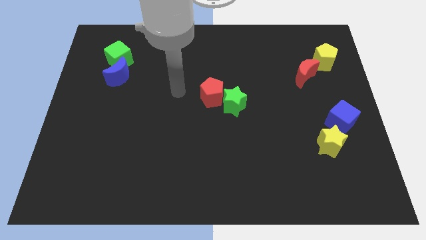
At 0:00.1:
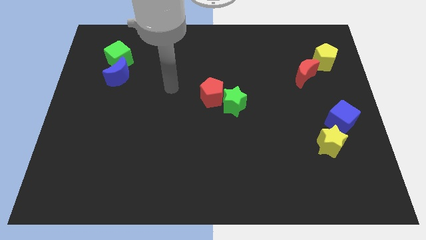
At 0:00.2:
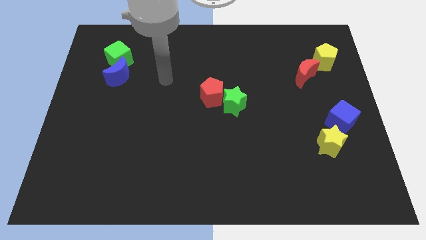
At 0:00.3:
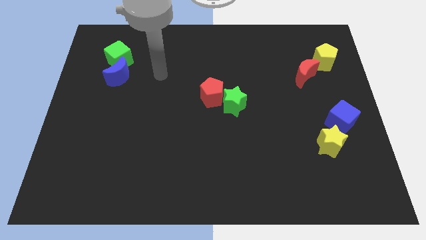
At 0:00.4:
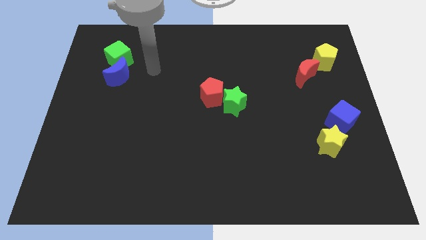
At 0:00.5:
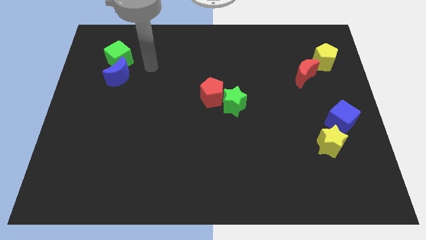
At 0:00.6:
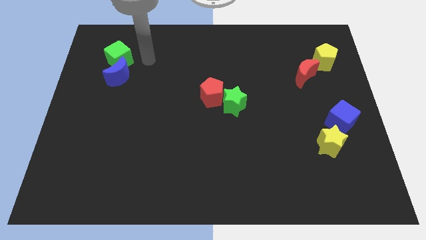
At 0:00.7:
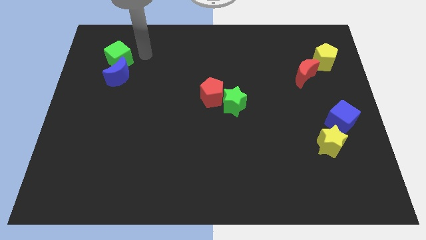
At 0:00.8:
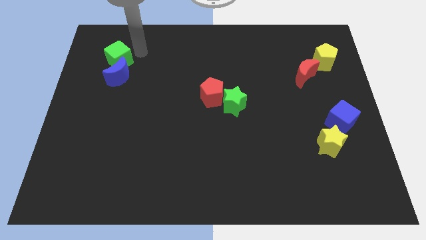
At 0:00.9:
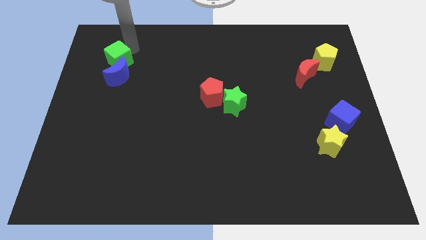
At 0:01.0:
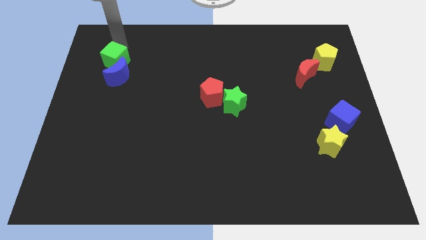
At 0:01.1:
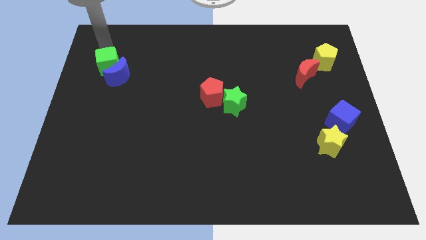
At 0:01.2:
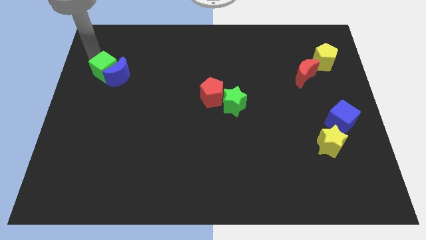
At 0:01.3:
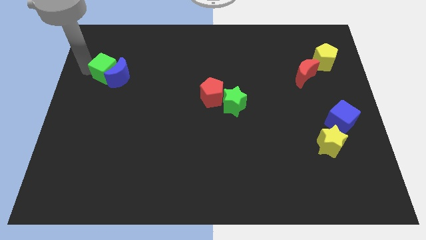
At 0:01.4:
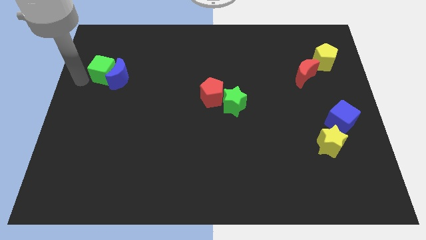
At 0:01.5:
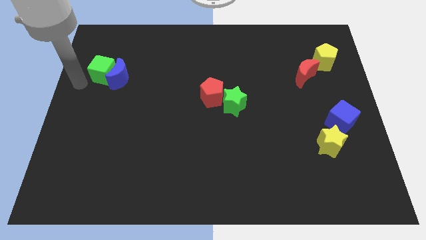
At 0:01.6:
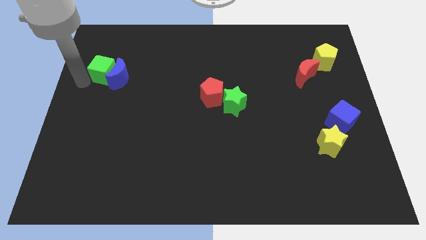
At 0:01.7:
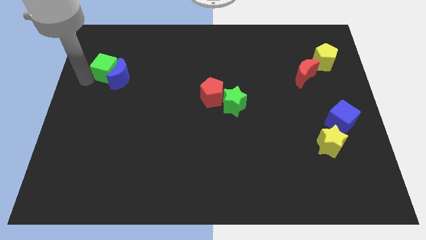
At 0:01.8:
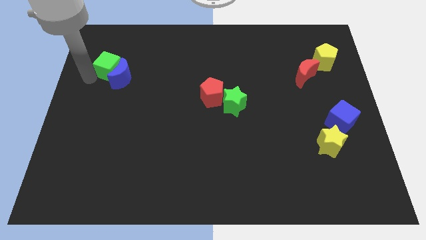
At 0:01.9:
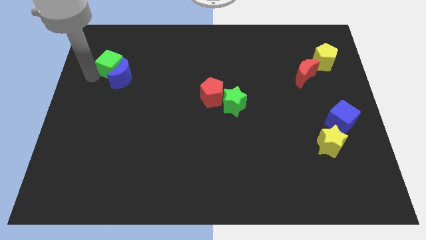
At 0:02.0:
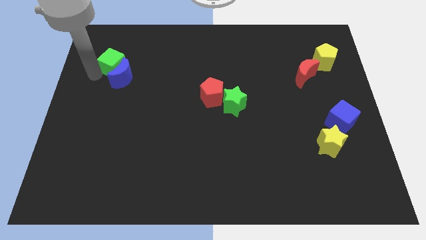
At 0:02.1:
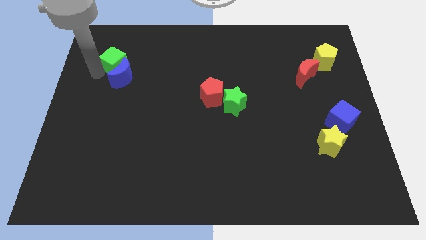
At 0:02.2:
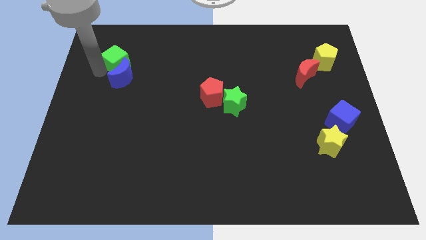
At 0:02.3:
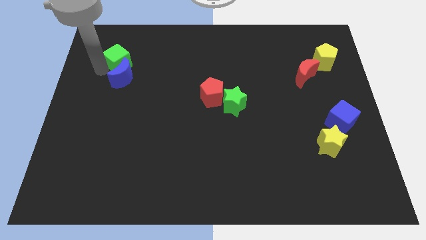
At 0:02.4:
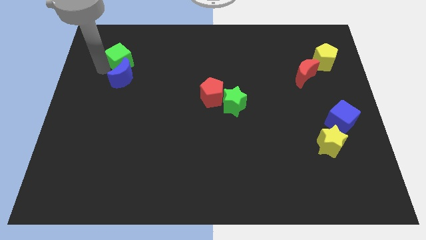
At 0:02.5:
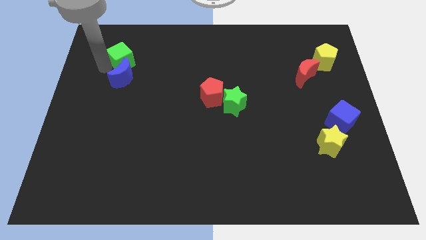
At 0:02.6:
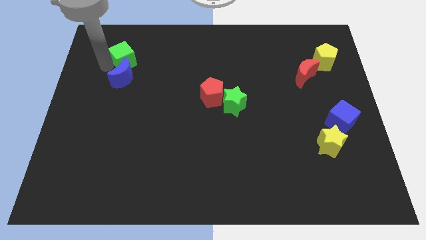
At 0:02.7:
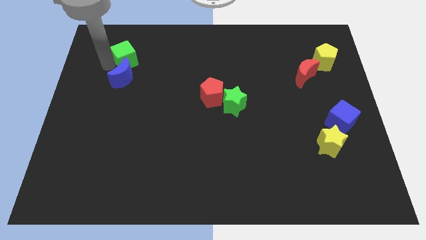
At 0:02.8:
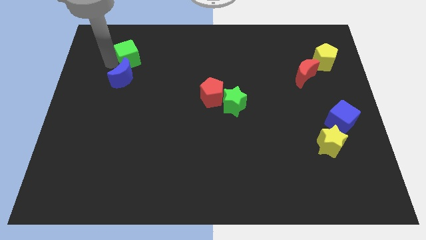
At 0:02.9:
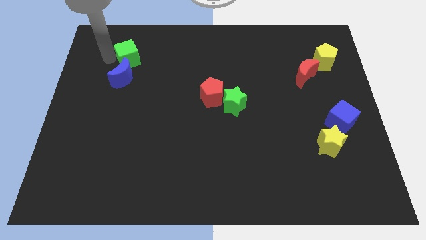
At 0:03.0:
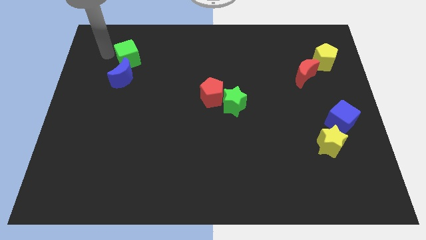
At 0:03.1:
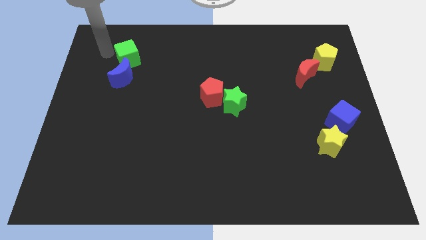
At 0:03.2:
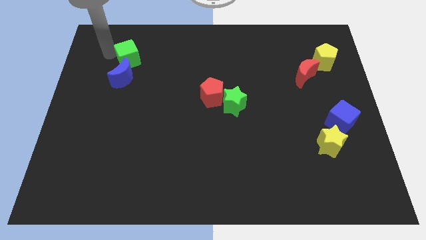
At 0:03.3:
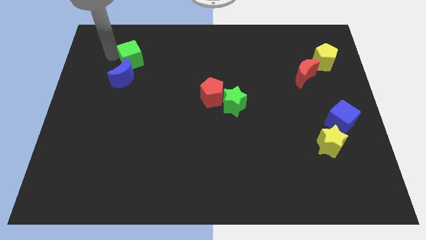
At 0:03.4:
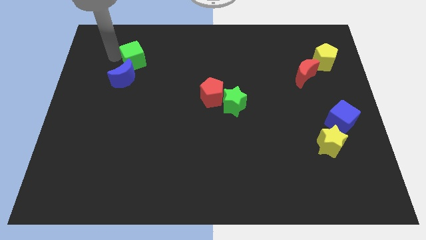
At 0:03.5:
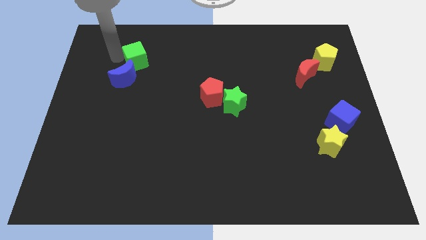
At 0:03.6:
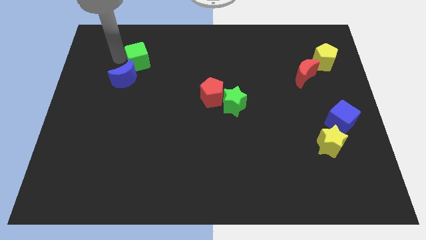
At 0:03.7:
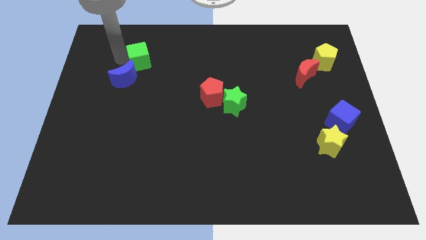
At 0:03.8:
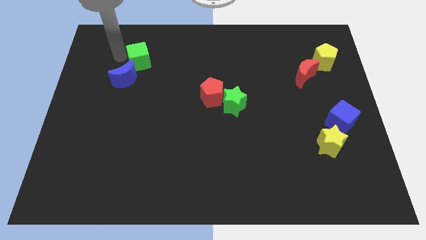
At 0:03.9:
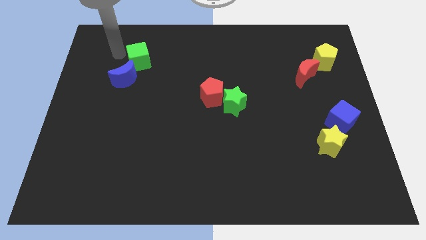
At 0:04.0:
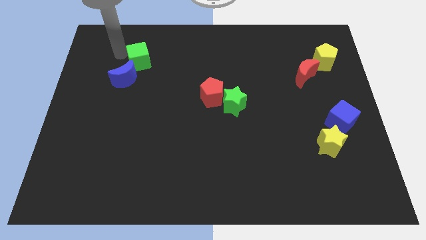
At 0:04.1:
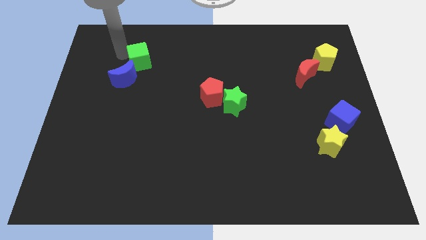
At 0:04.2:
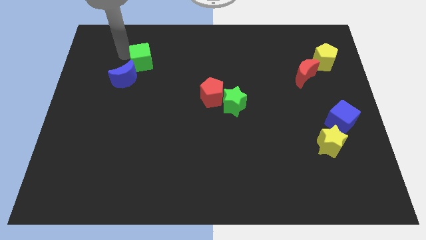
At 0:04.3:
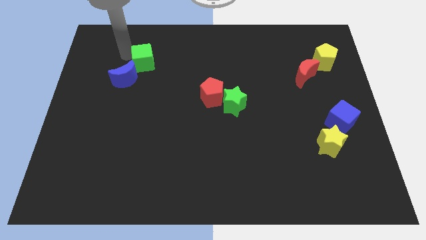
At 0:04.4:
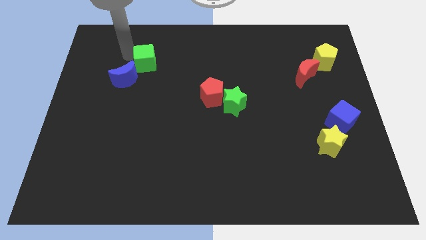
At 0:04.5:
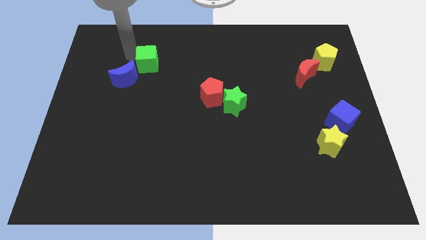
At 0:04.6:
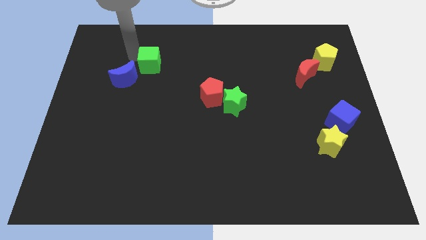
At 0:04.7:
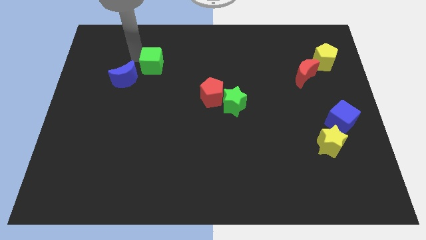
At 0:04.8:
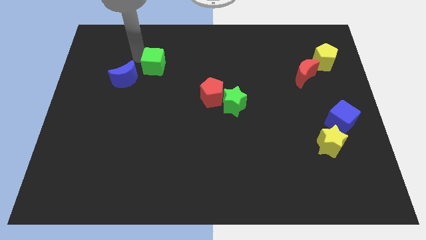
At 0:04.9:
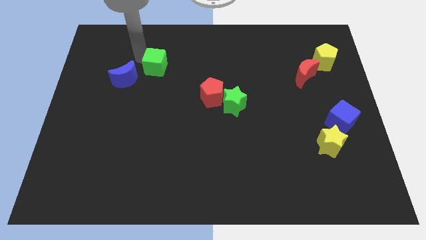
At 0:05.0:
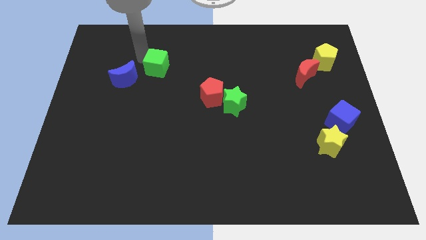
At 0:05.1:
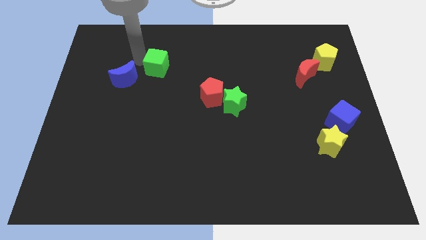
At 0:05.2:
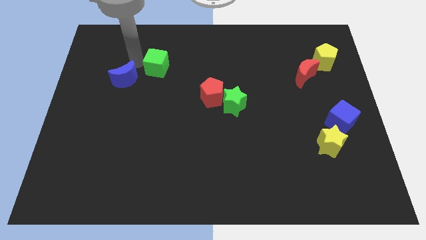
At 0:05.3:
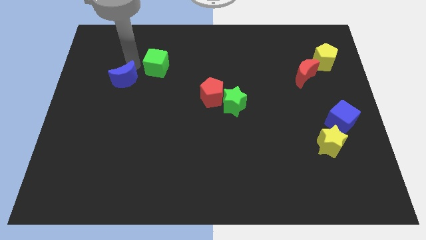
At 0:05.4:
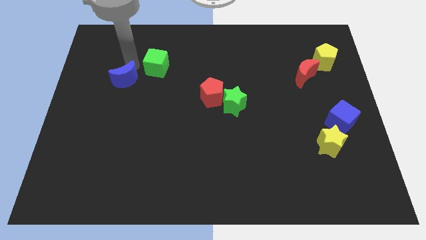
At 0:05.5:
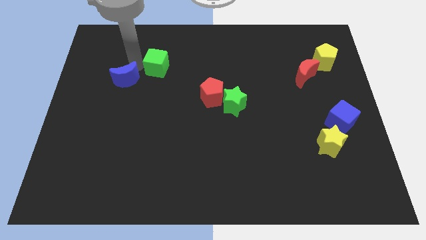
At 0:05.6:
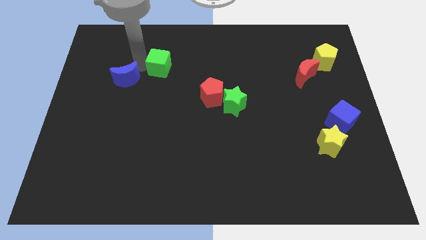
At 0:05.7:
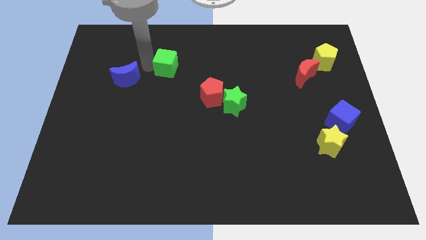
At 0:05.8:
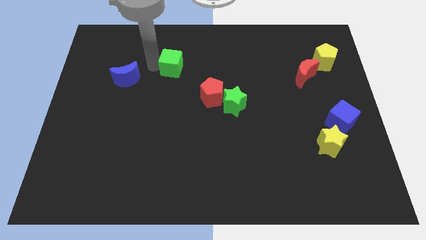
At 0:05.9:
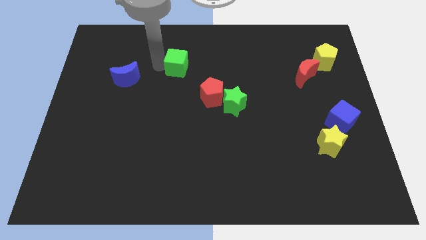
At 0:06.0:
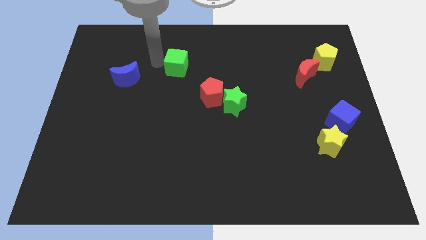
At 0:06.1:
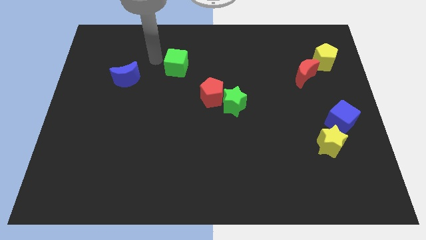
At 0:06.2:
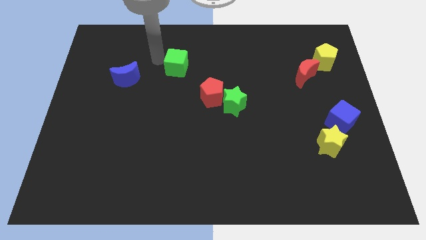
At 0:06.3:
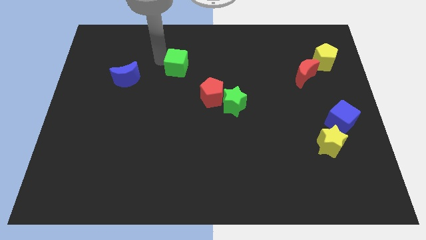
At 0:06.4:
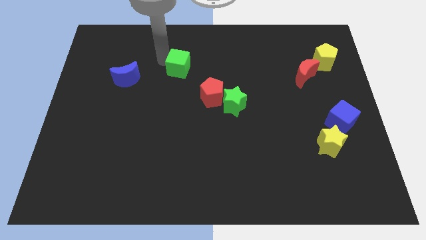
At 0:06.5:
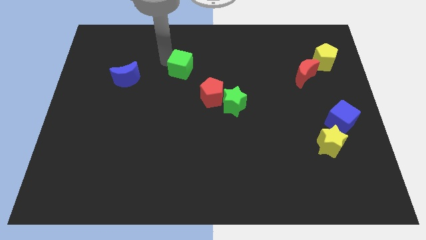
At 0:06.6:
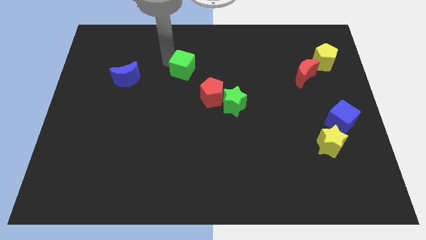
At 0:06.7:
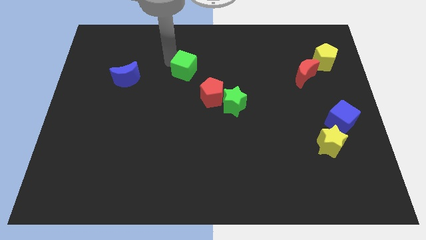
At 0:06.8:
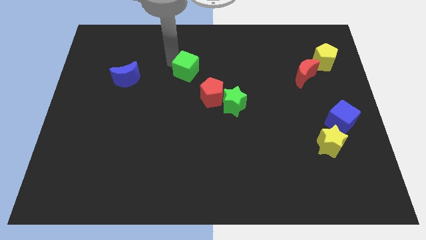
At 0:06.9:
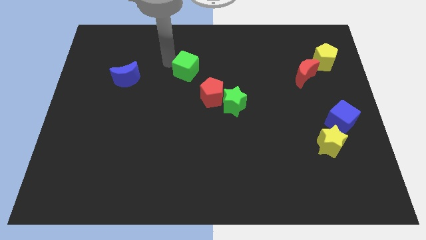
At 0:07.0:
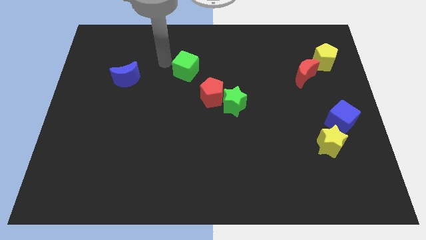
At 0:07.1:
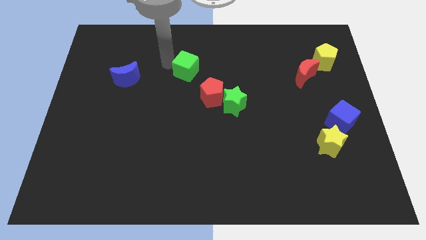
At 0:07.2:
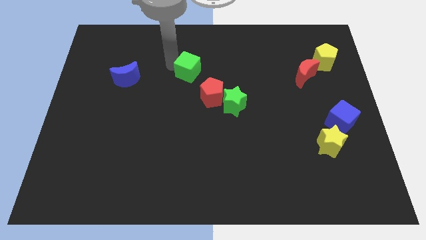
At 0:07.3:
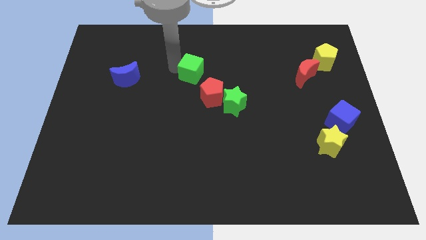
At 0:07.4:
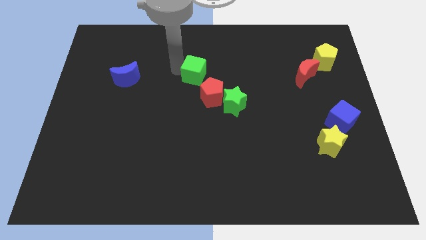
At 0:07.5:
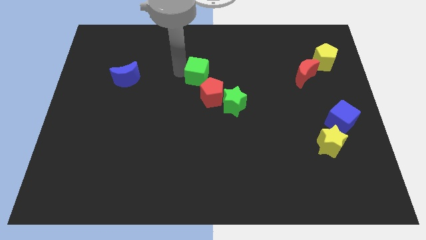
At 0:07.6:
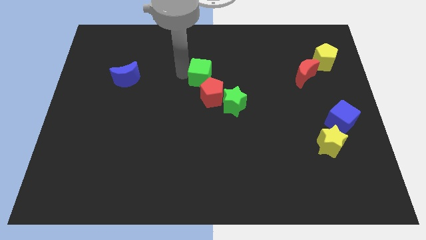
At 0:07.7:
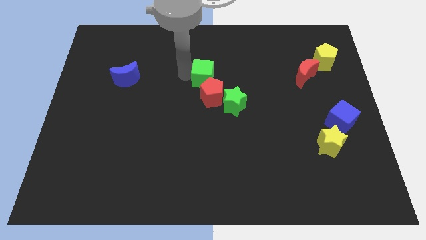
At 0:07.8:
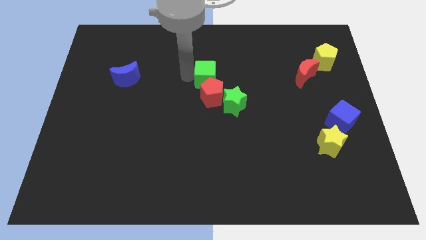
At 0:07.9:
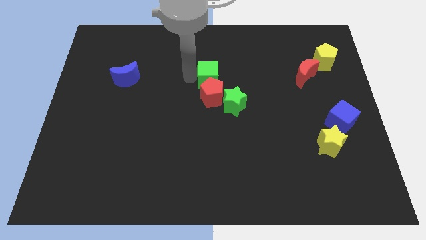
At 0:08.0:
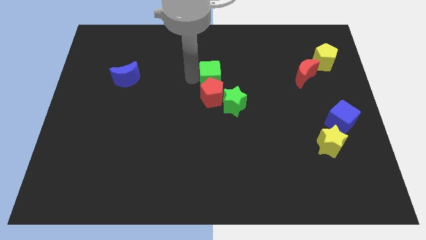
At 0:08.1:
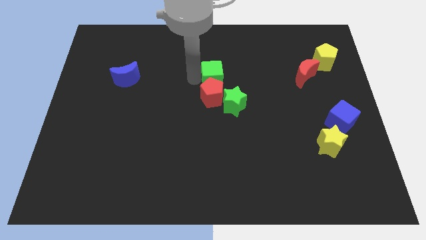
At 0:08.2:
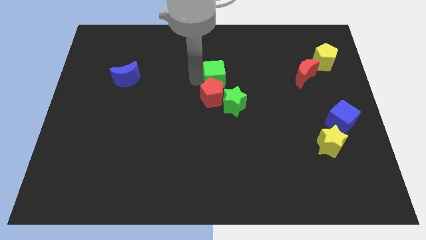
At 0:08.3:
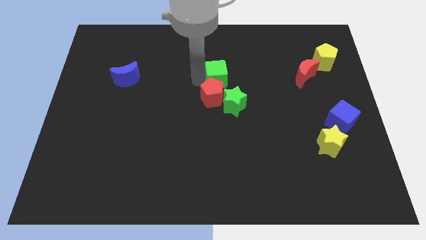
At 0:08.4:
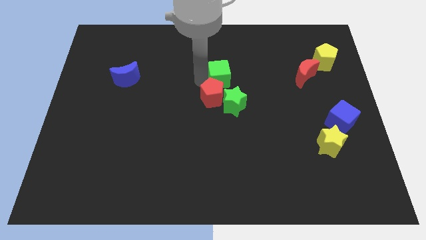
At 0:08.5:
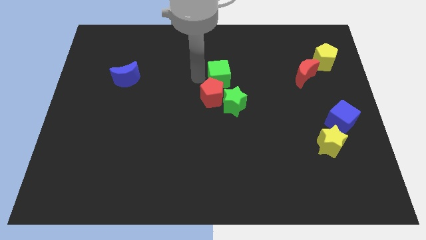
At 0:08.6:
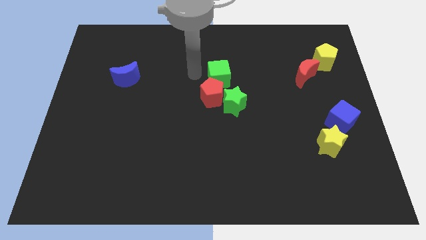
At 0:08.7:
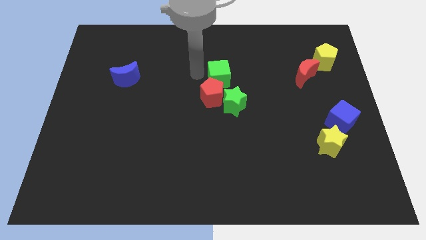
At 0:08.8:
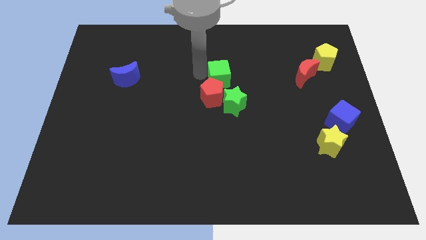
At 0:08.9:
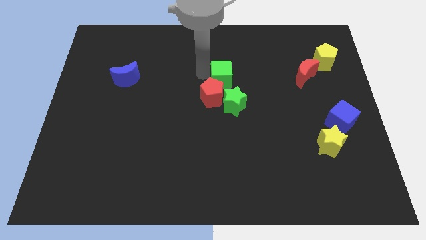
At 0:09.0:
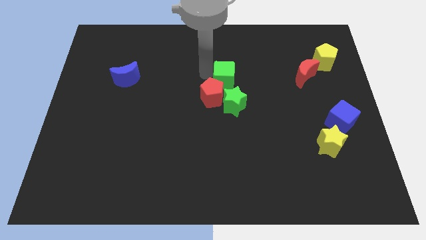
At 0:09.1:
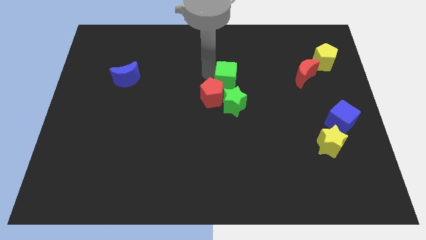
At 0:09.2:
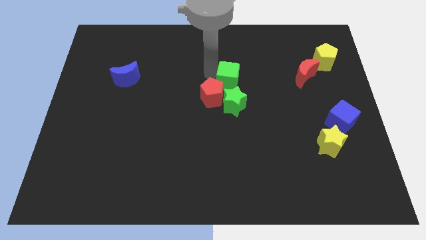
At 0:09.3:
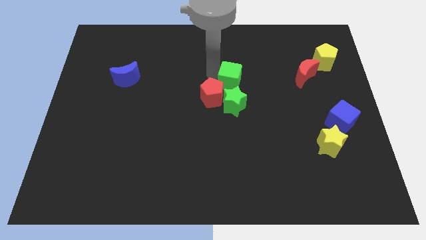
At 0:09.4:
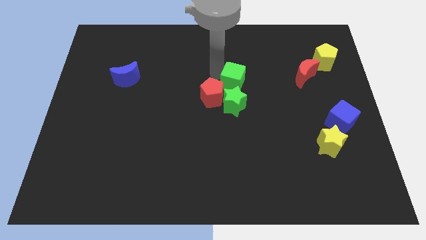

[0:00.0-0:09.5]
move the green cube just right of the red pentagon
